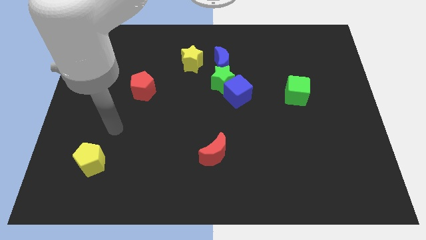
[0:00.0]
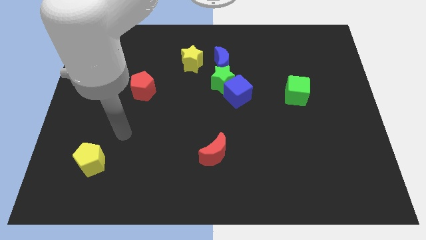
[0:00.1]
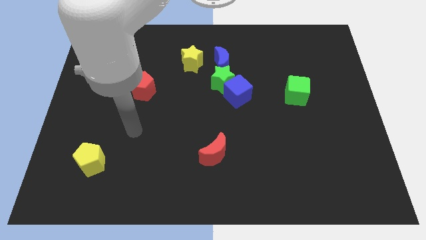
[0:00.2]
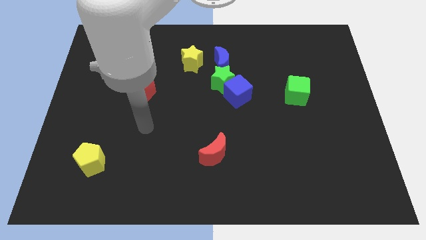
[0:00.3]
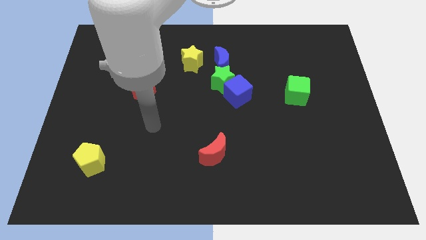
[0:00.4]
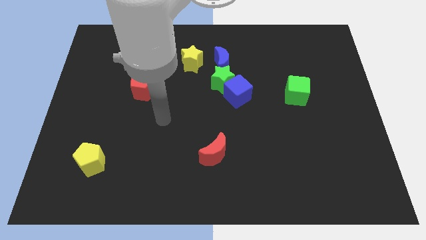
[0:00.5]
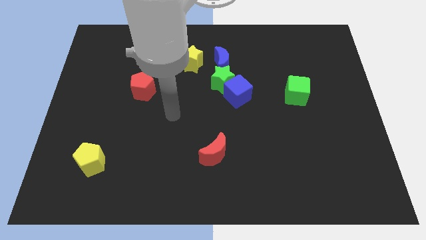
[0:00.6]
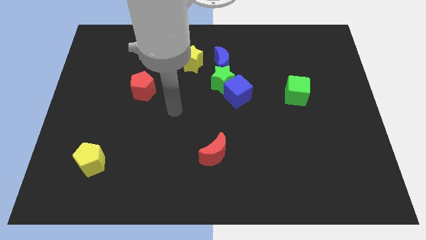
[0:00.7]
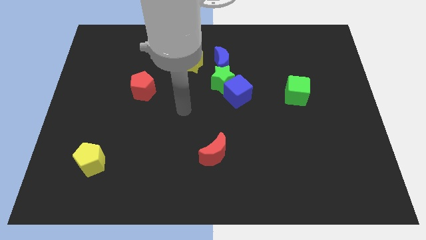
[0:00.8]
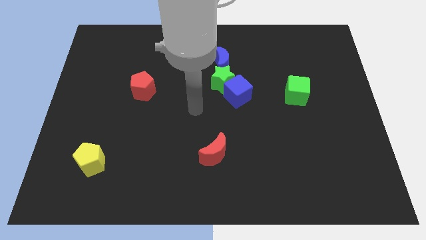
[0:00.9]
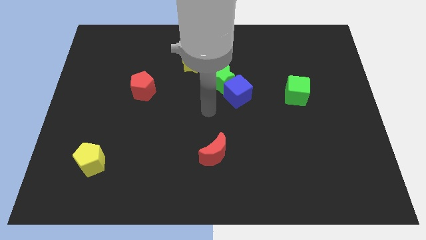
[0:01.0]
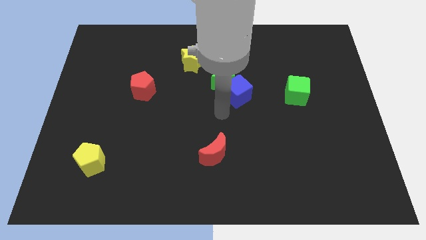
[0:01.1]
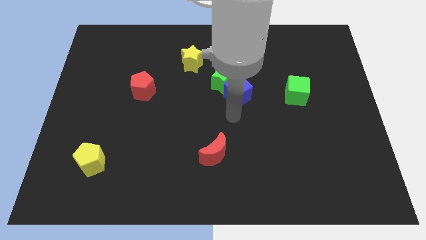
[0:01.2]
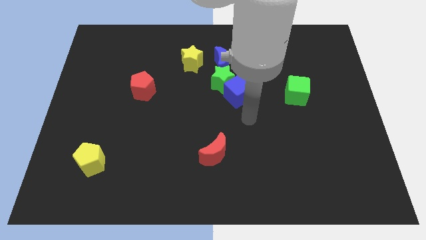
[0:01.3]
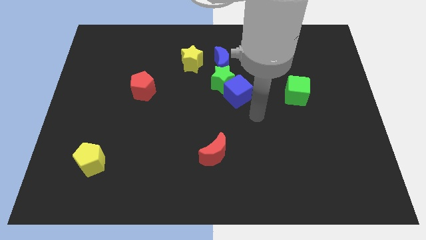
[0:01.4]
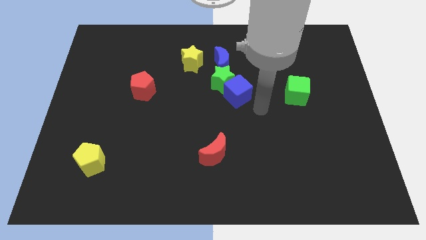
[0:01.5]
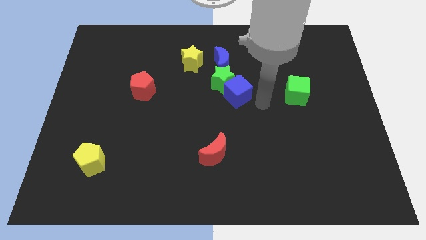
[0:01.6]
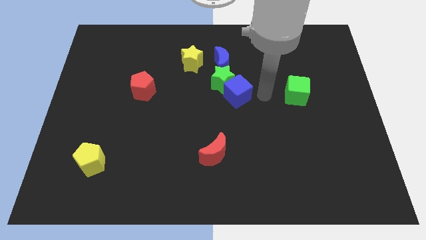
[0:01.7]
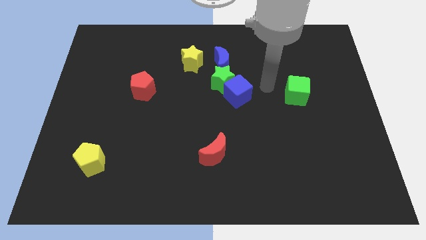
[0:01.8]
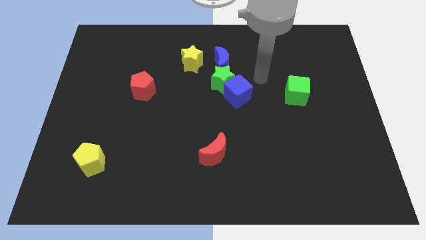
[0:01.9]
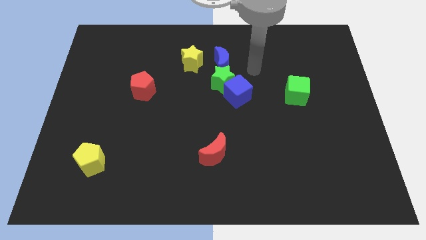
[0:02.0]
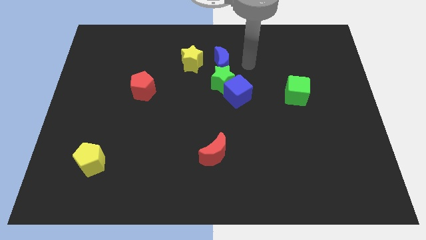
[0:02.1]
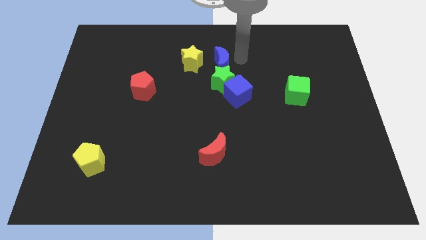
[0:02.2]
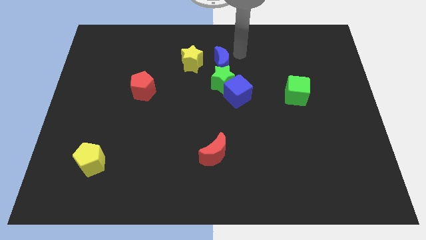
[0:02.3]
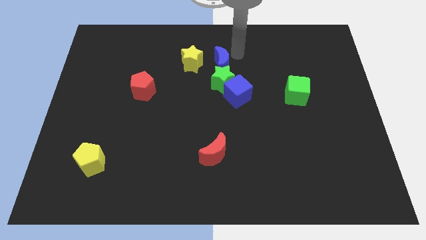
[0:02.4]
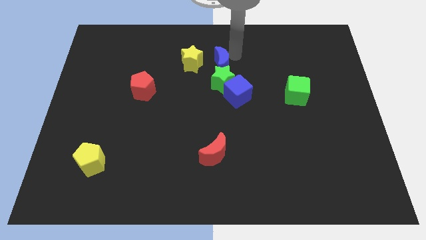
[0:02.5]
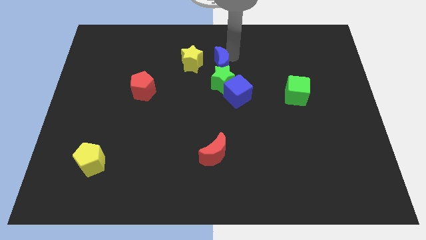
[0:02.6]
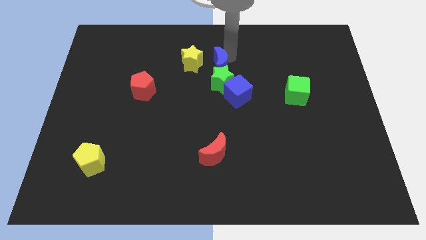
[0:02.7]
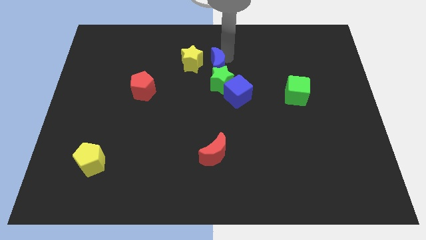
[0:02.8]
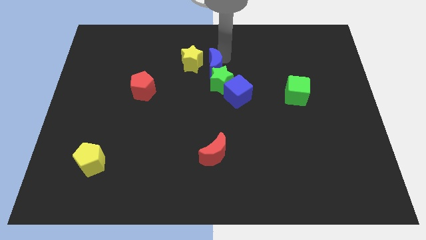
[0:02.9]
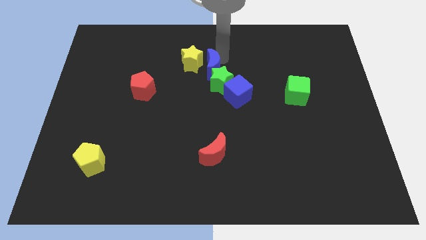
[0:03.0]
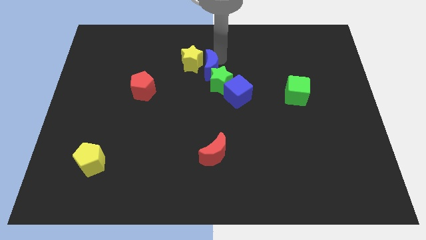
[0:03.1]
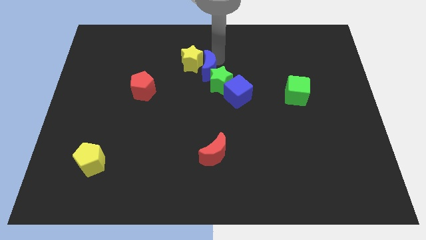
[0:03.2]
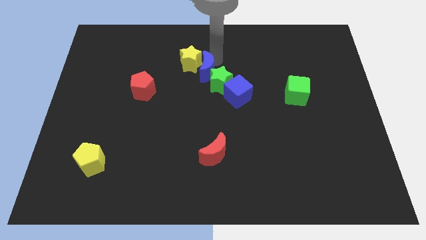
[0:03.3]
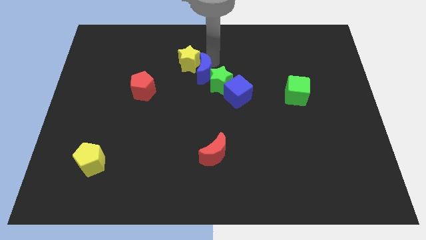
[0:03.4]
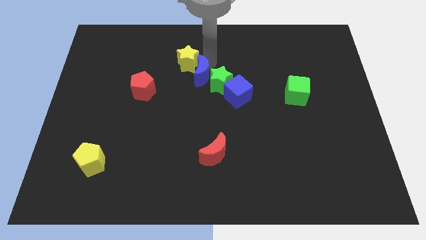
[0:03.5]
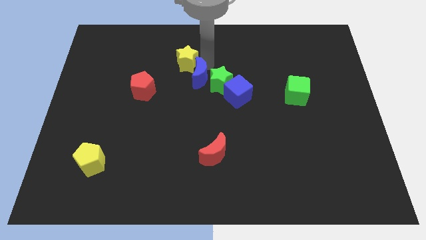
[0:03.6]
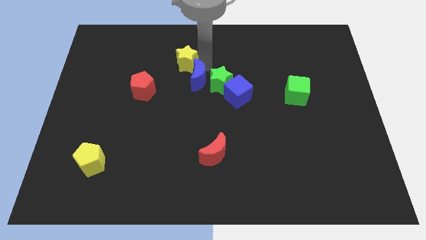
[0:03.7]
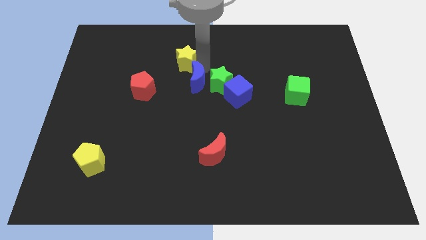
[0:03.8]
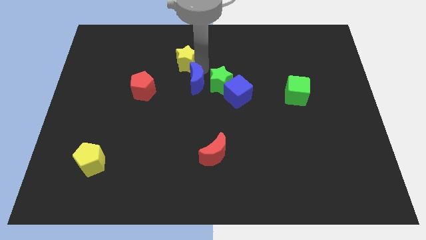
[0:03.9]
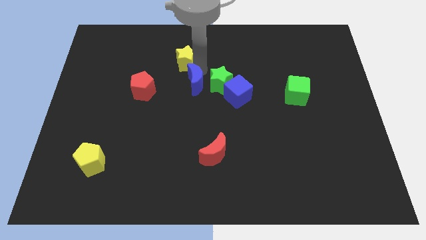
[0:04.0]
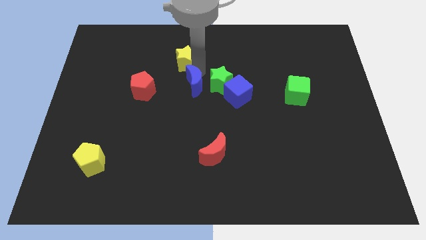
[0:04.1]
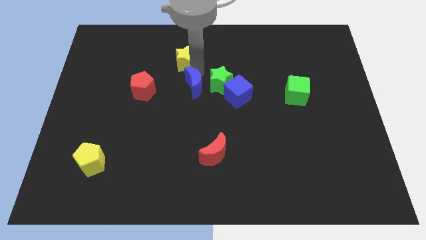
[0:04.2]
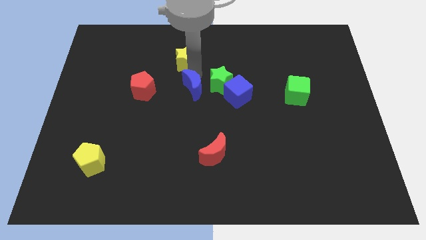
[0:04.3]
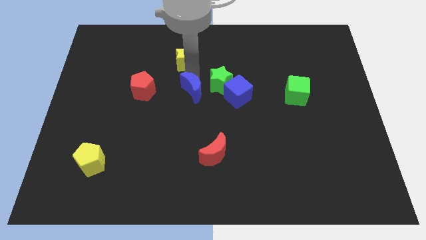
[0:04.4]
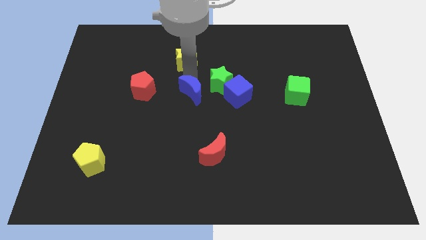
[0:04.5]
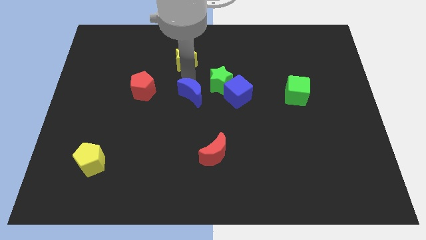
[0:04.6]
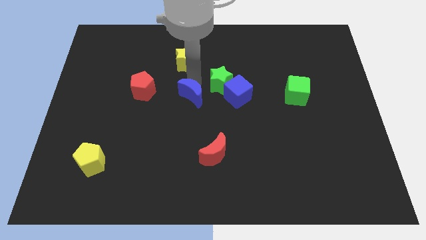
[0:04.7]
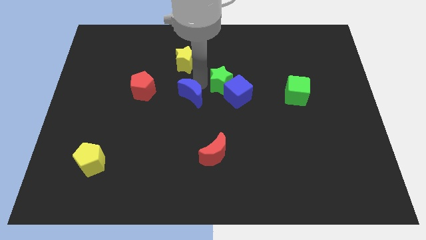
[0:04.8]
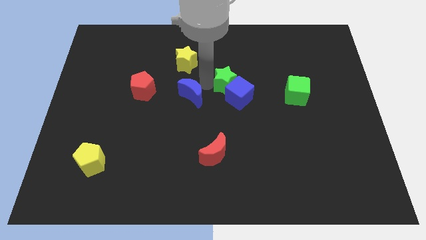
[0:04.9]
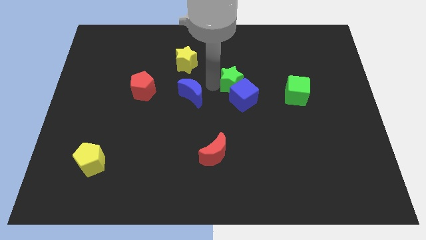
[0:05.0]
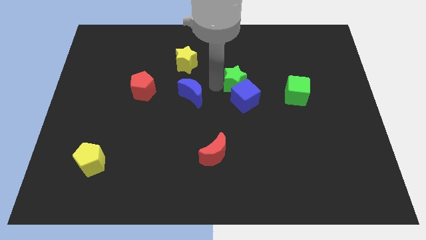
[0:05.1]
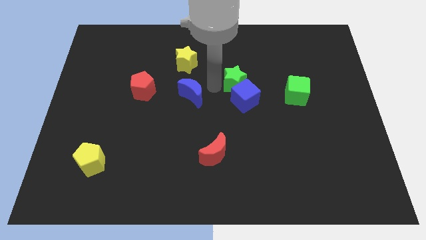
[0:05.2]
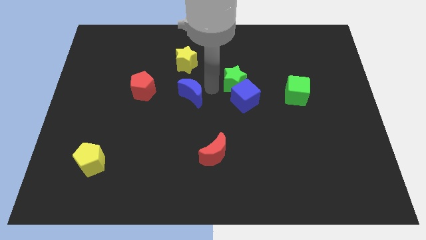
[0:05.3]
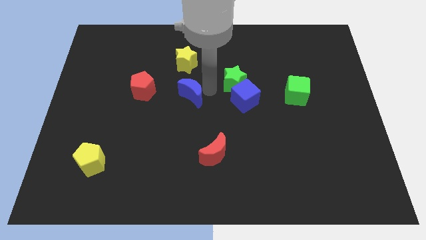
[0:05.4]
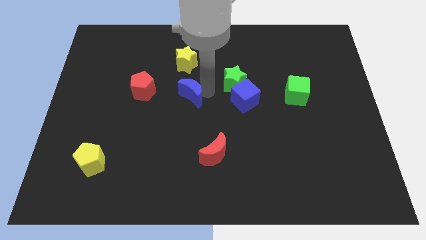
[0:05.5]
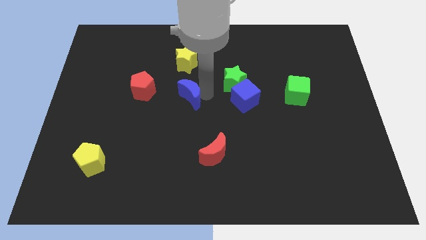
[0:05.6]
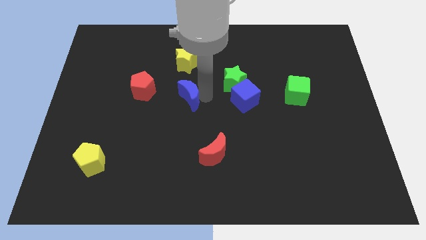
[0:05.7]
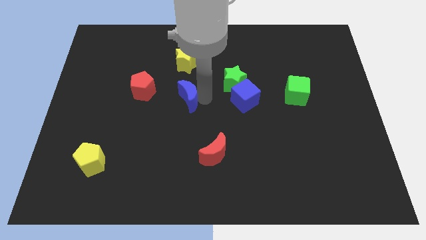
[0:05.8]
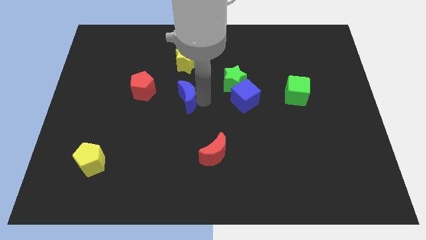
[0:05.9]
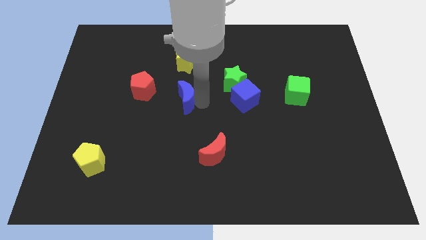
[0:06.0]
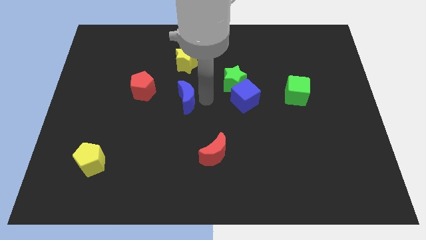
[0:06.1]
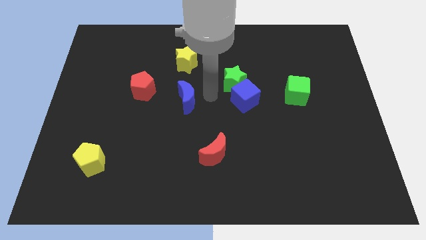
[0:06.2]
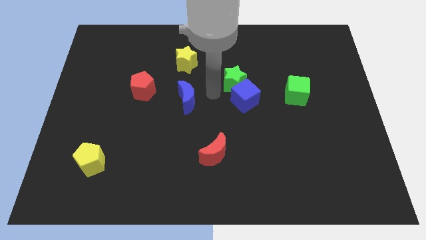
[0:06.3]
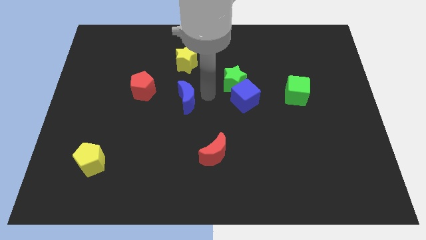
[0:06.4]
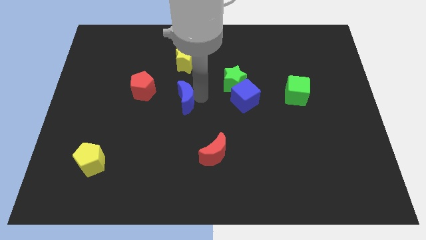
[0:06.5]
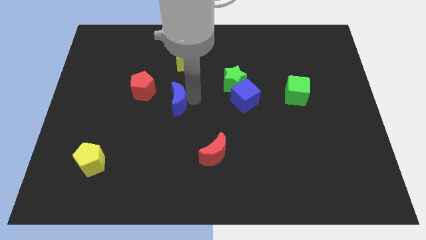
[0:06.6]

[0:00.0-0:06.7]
slide the blue moon diagonally down and to the right of the red pentagon
